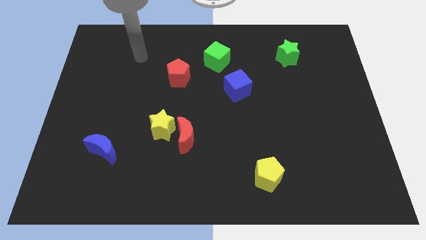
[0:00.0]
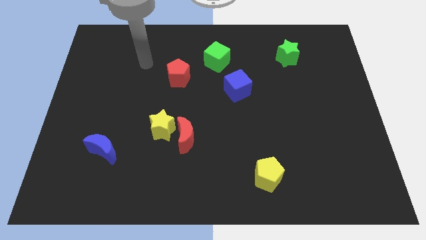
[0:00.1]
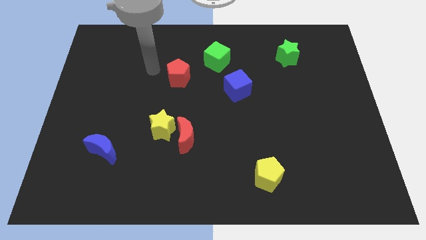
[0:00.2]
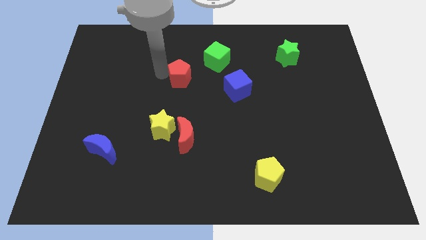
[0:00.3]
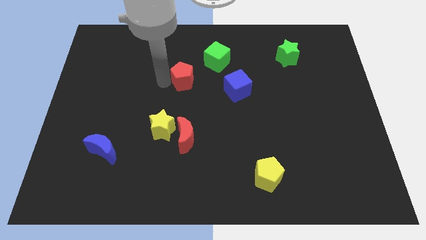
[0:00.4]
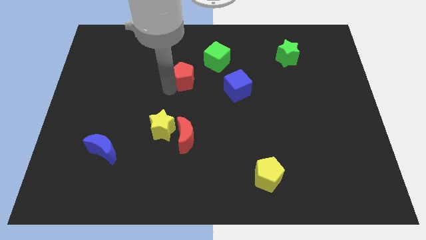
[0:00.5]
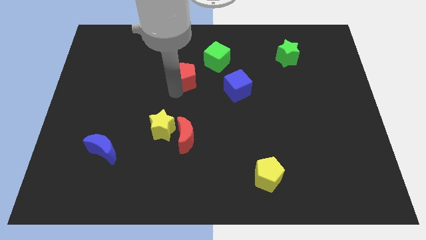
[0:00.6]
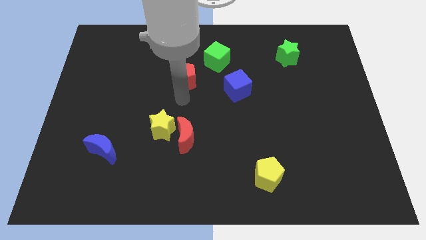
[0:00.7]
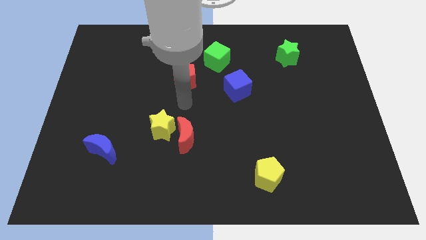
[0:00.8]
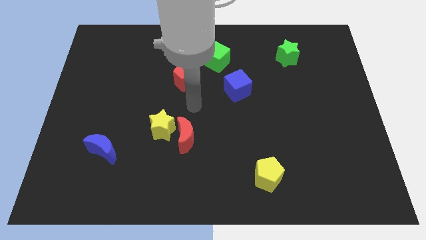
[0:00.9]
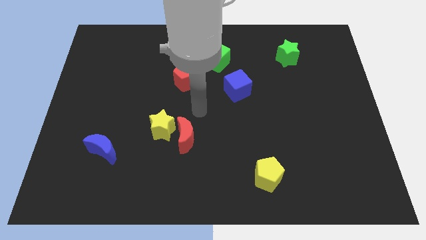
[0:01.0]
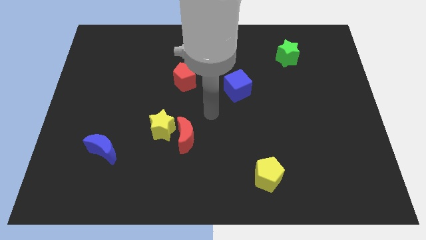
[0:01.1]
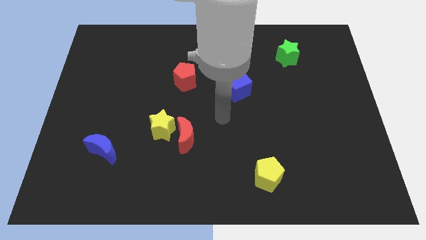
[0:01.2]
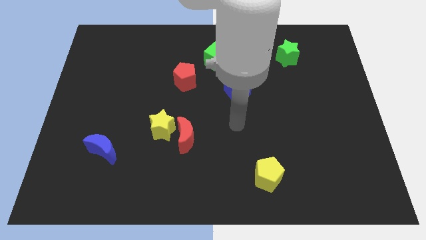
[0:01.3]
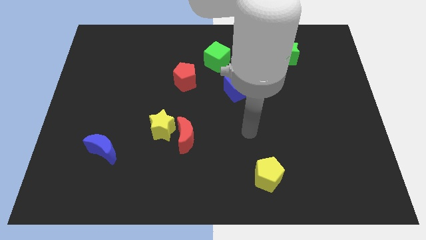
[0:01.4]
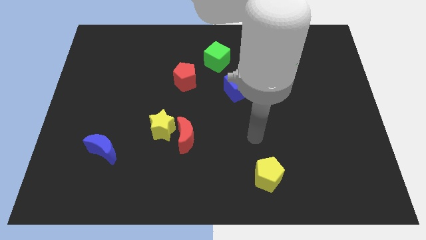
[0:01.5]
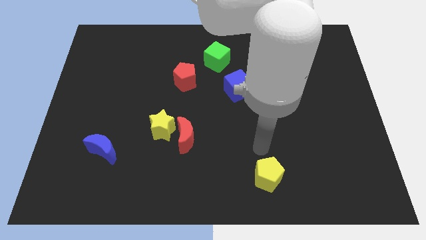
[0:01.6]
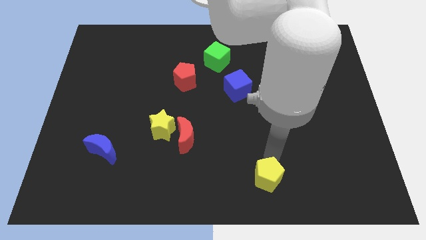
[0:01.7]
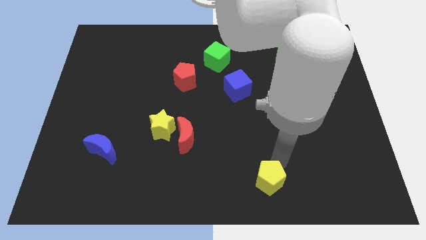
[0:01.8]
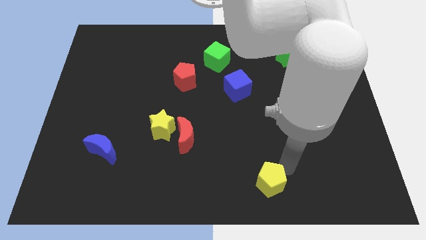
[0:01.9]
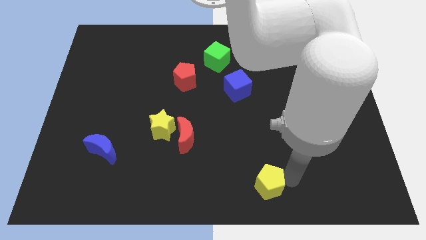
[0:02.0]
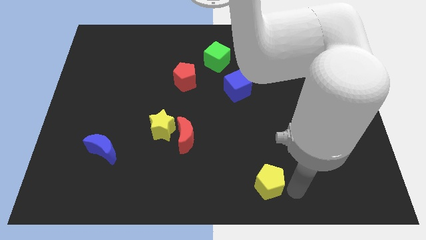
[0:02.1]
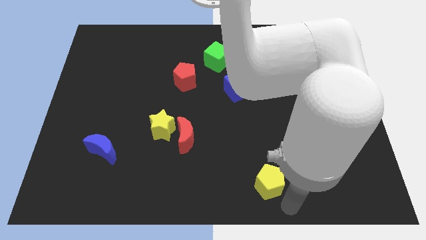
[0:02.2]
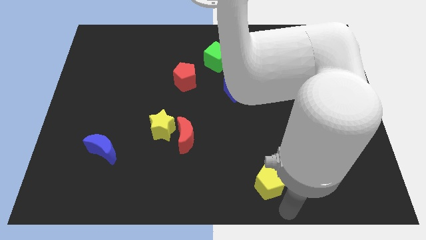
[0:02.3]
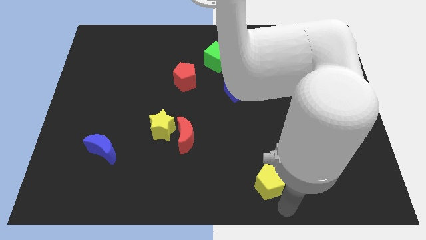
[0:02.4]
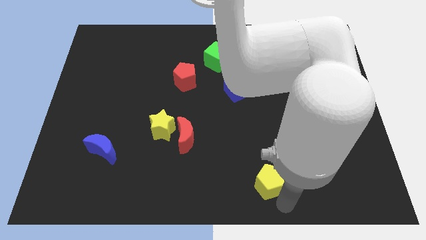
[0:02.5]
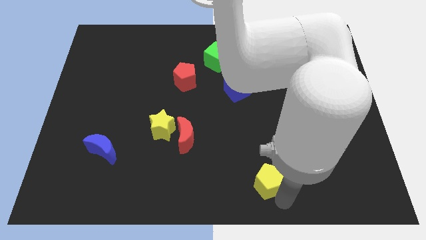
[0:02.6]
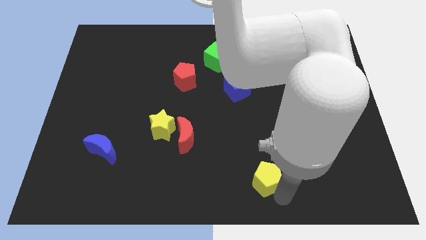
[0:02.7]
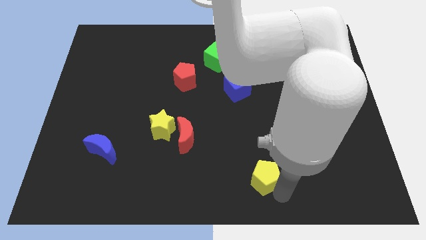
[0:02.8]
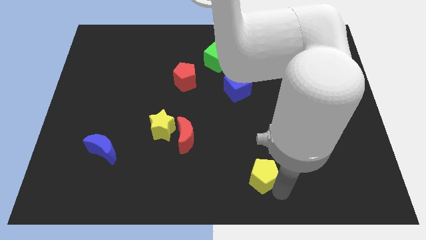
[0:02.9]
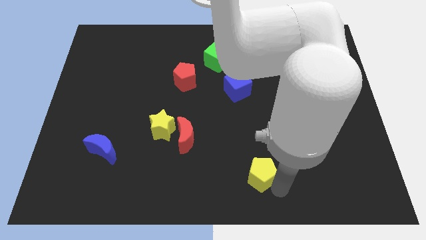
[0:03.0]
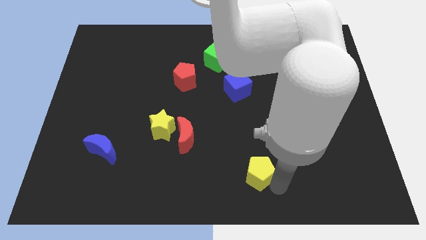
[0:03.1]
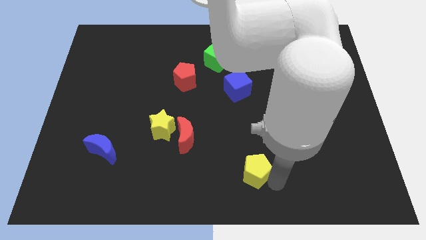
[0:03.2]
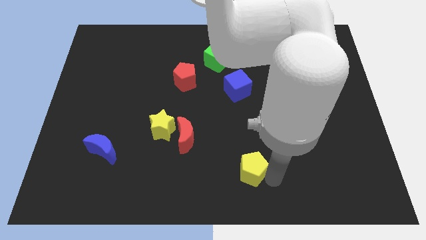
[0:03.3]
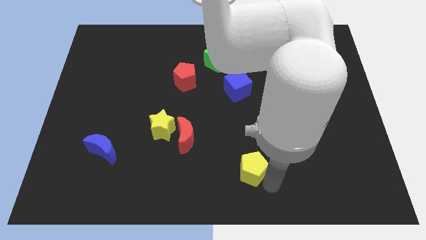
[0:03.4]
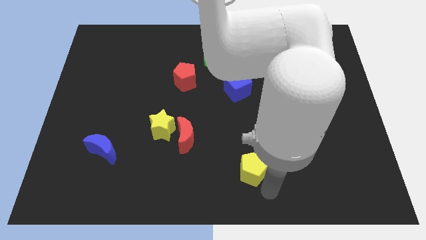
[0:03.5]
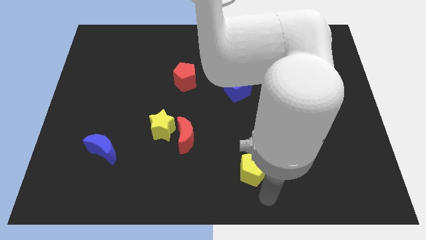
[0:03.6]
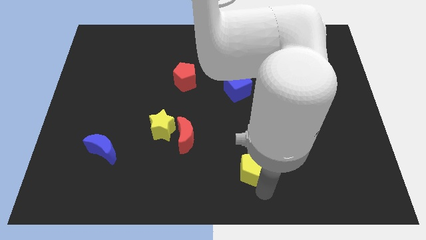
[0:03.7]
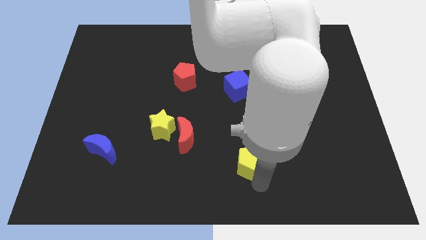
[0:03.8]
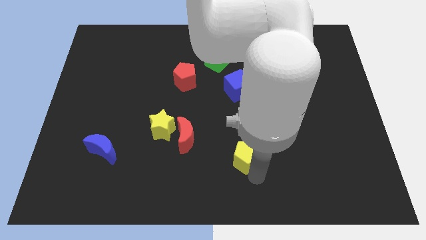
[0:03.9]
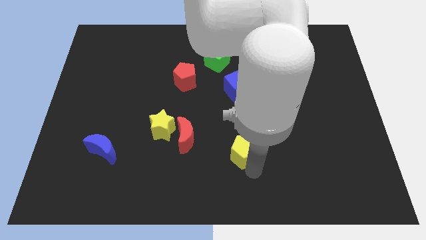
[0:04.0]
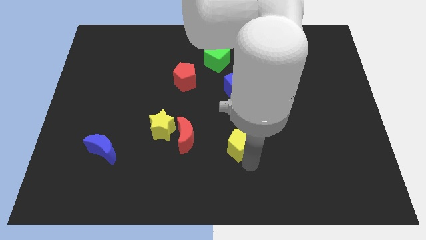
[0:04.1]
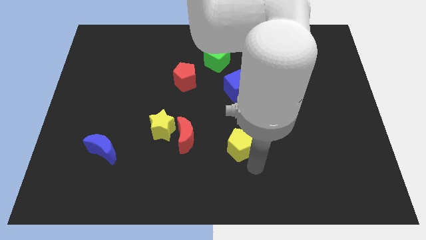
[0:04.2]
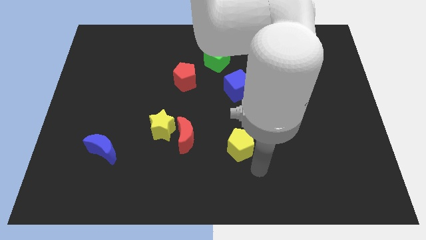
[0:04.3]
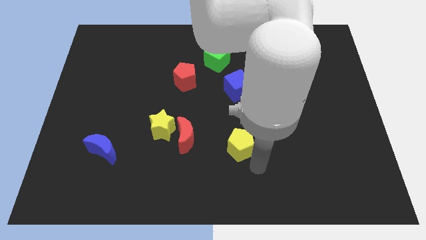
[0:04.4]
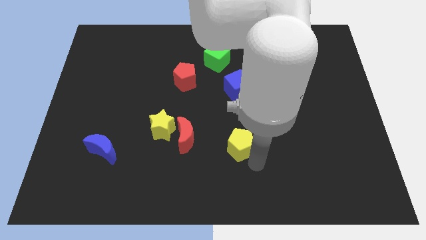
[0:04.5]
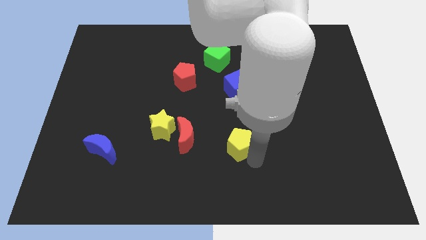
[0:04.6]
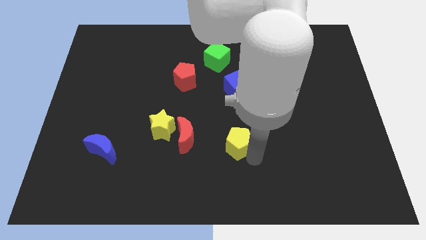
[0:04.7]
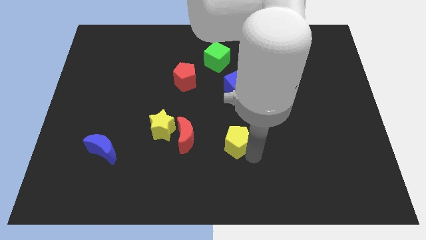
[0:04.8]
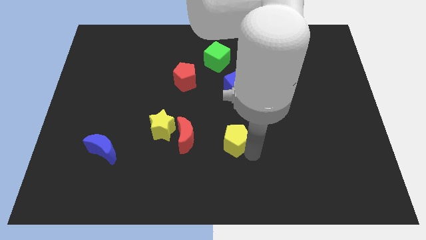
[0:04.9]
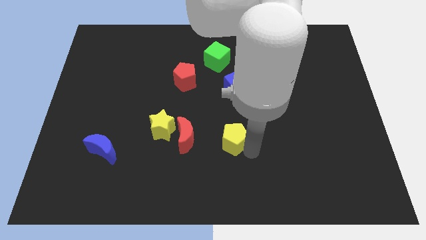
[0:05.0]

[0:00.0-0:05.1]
move the yellow pentagon to the center

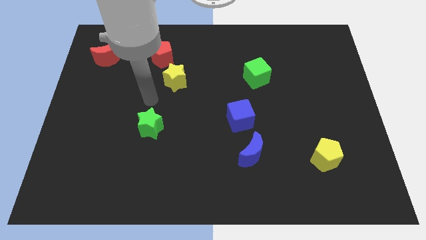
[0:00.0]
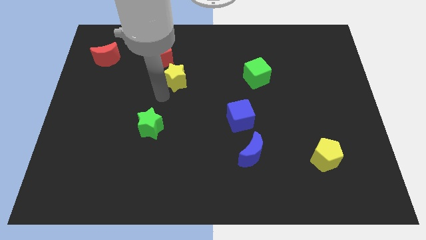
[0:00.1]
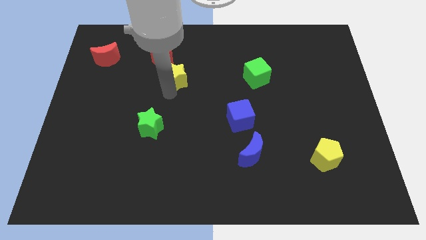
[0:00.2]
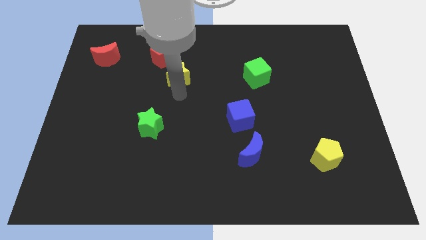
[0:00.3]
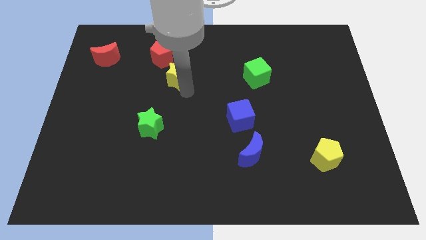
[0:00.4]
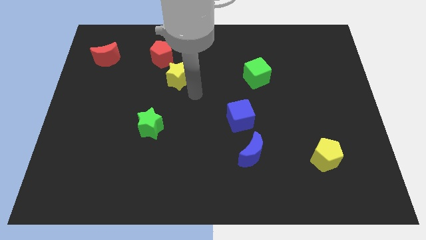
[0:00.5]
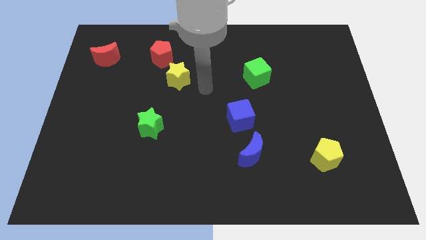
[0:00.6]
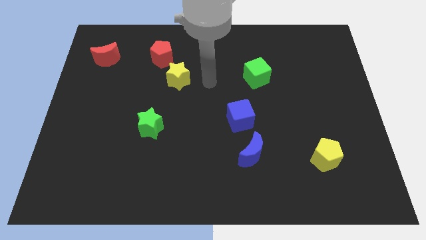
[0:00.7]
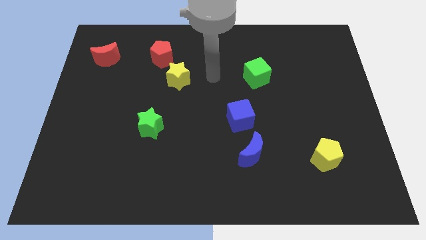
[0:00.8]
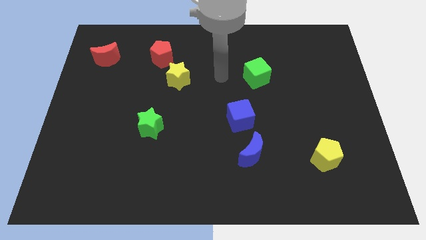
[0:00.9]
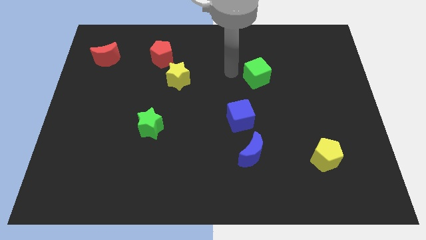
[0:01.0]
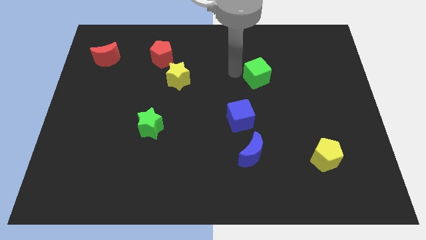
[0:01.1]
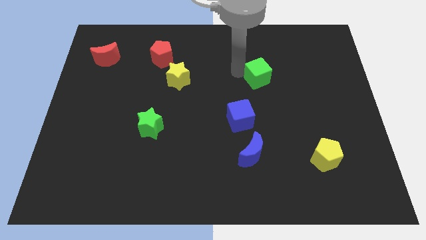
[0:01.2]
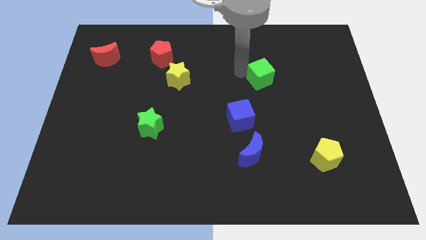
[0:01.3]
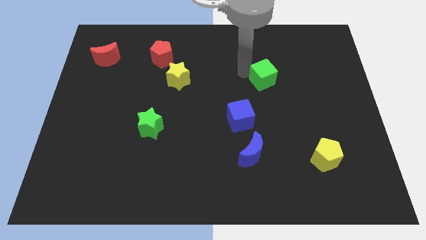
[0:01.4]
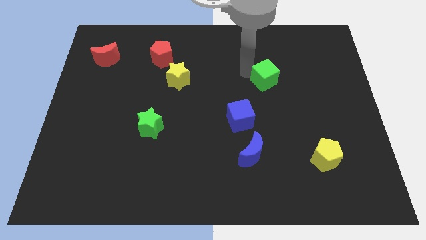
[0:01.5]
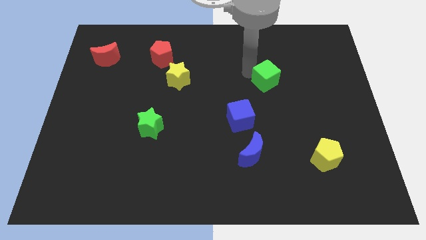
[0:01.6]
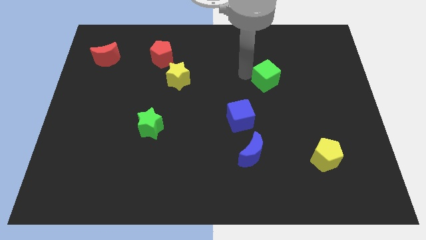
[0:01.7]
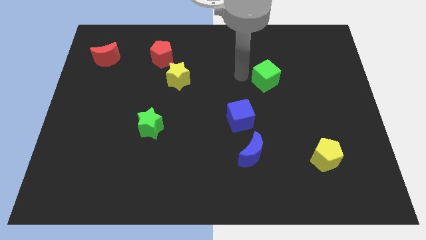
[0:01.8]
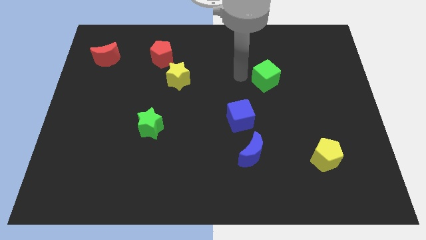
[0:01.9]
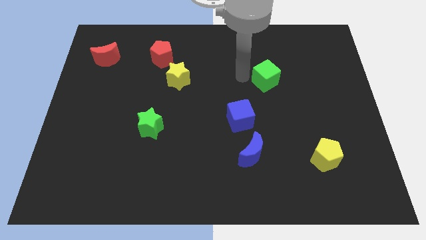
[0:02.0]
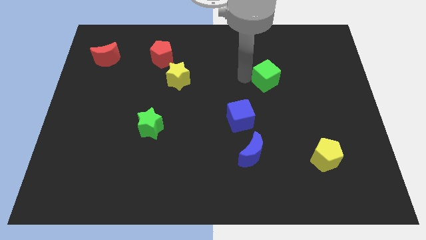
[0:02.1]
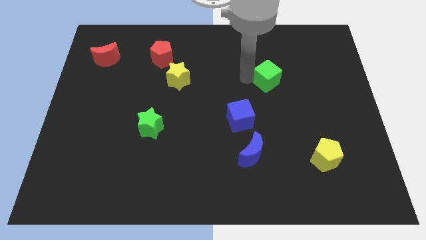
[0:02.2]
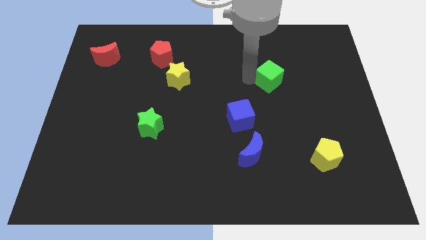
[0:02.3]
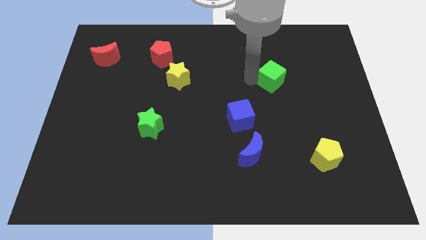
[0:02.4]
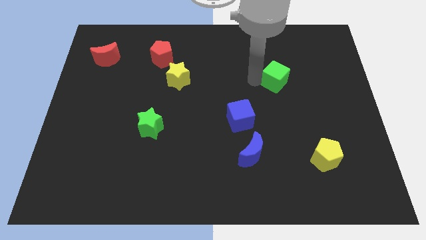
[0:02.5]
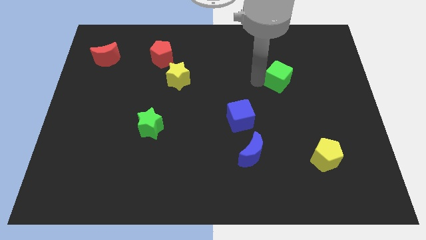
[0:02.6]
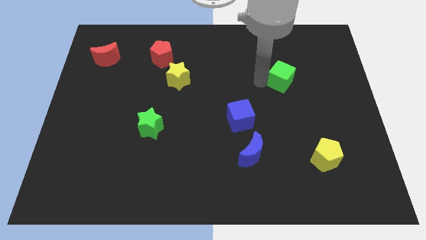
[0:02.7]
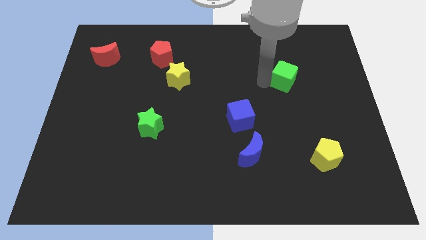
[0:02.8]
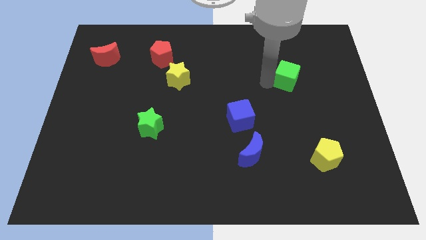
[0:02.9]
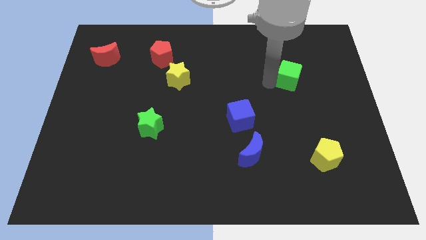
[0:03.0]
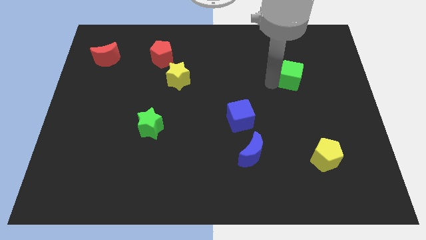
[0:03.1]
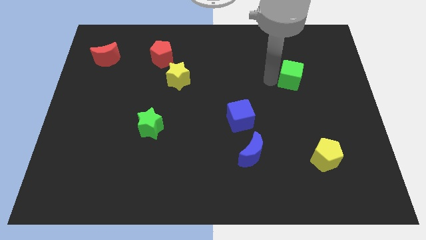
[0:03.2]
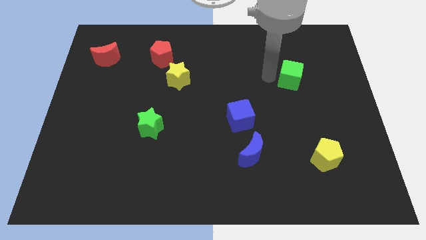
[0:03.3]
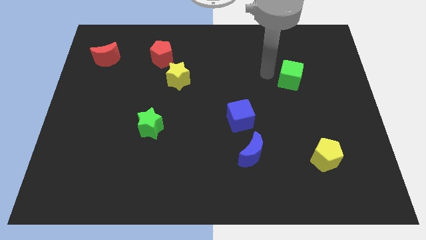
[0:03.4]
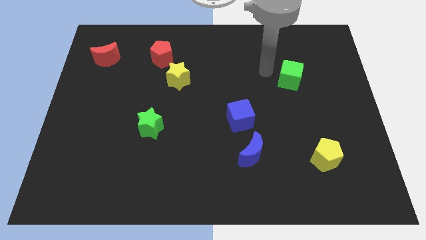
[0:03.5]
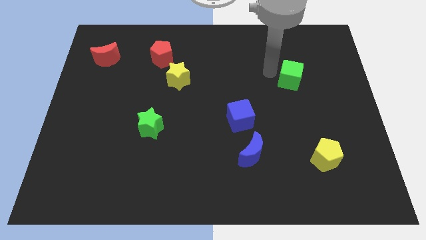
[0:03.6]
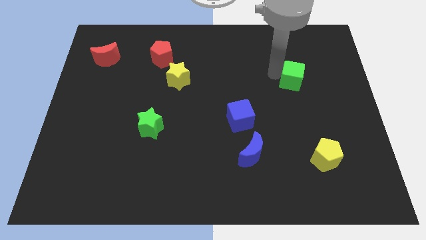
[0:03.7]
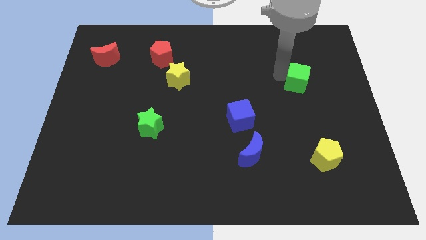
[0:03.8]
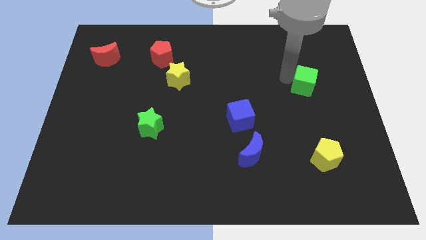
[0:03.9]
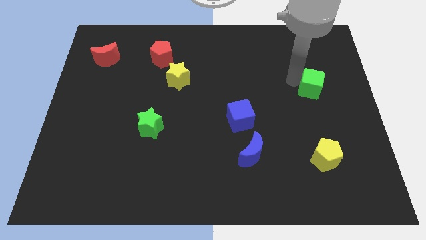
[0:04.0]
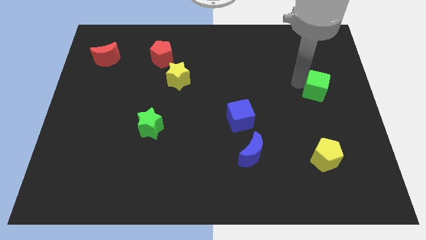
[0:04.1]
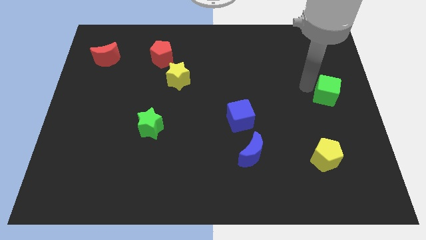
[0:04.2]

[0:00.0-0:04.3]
push the green cube to the right side of the board
